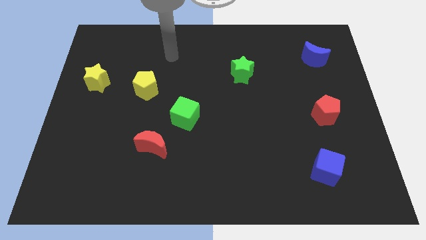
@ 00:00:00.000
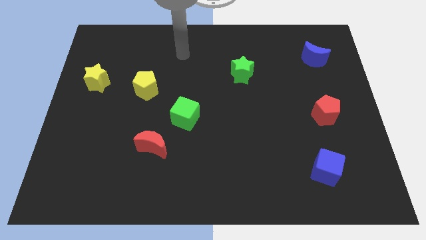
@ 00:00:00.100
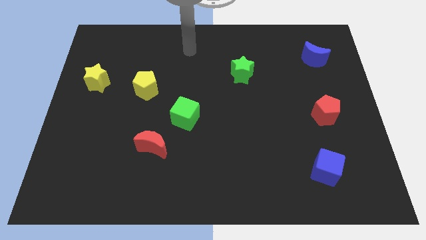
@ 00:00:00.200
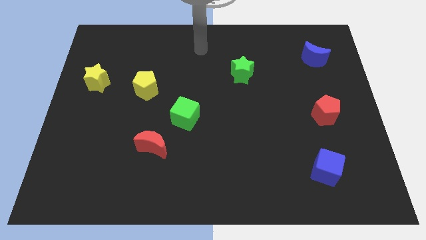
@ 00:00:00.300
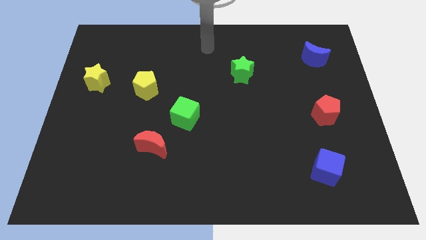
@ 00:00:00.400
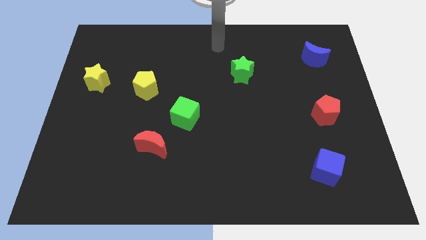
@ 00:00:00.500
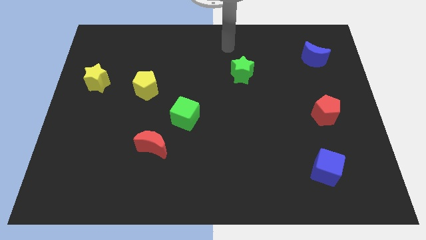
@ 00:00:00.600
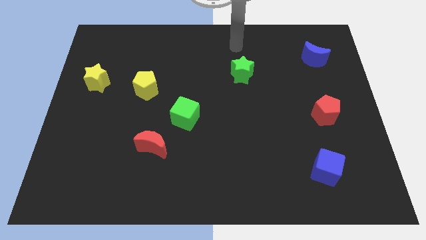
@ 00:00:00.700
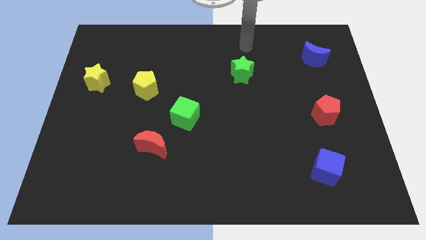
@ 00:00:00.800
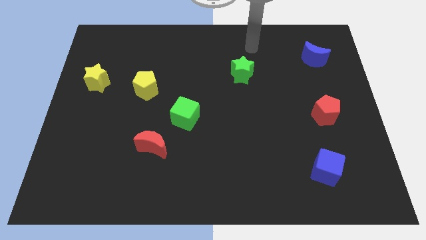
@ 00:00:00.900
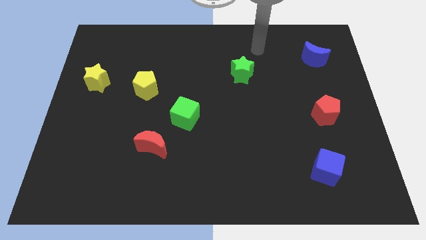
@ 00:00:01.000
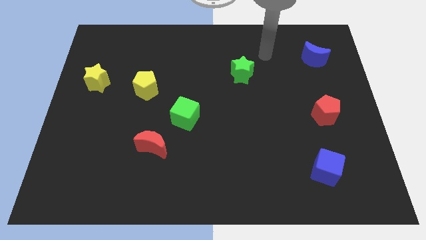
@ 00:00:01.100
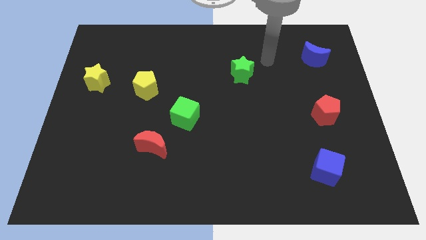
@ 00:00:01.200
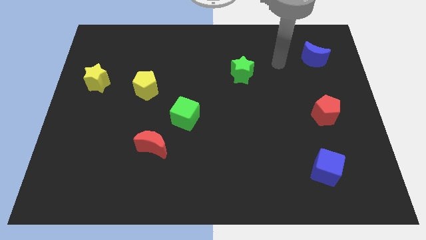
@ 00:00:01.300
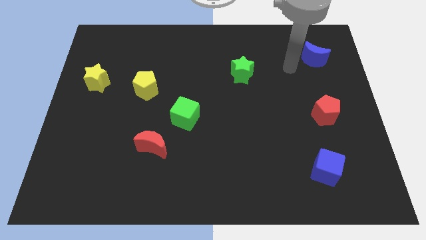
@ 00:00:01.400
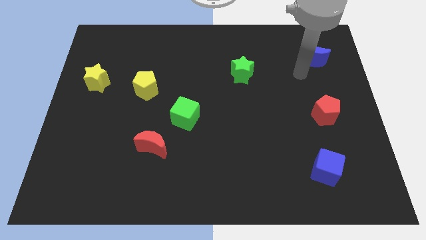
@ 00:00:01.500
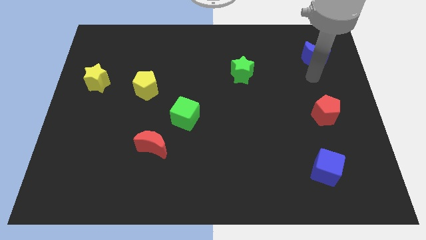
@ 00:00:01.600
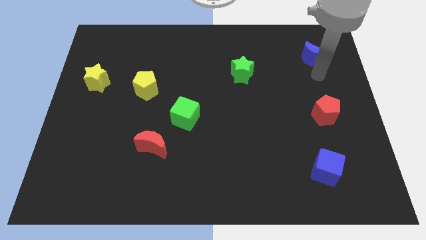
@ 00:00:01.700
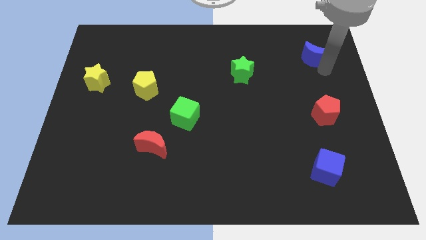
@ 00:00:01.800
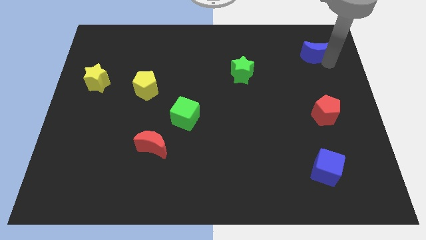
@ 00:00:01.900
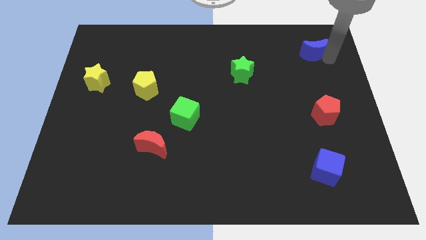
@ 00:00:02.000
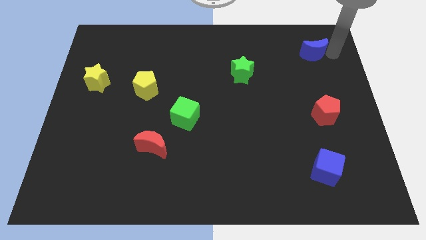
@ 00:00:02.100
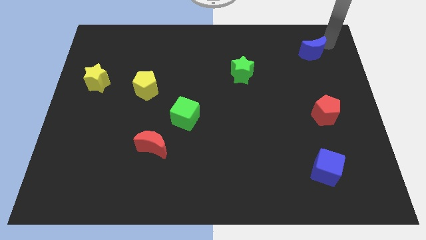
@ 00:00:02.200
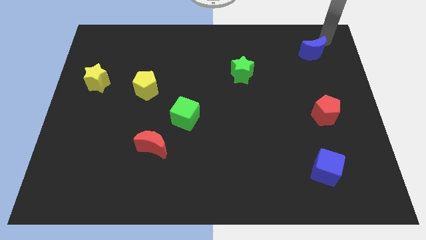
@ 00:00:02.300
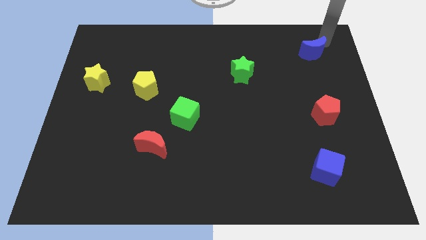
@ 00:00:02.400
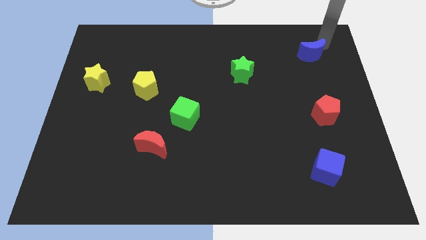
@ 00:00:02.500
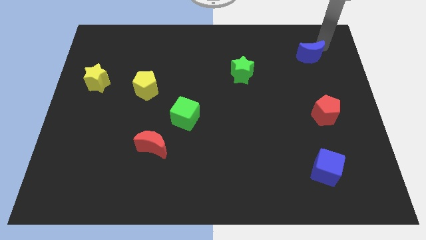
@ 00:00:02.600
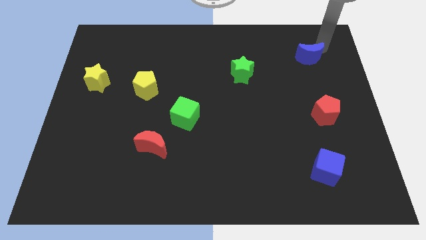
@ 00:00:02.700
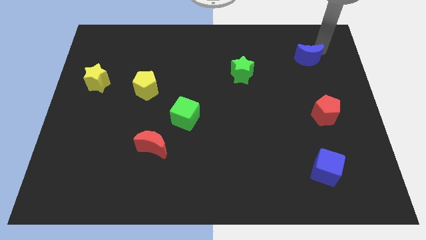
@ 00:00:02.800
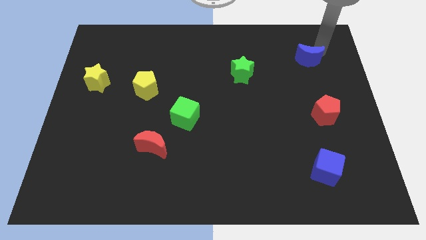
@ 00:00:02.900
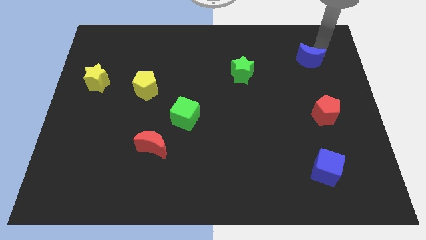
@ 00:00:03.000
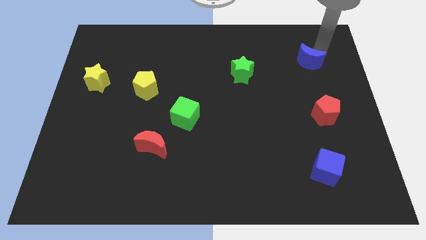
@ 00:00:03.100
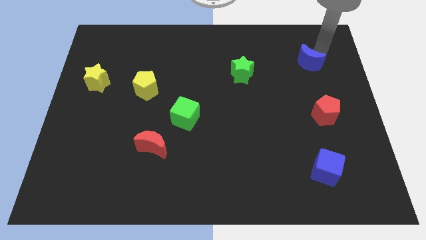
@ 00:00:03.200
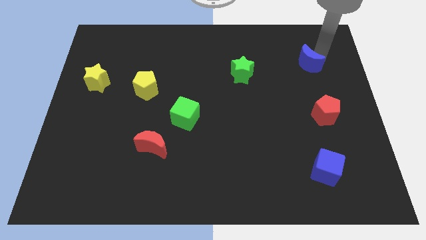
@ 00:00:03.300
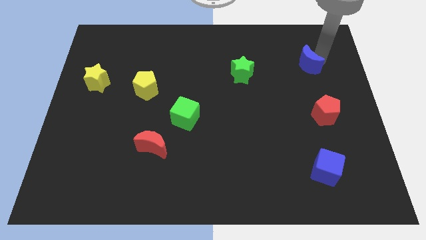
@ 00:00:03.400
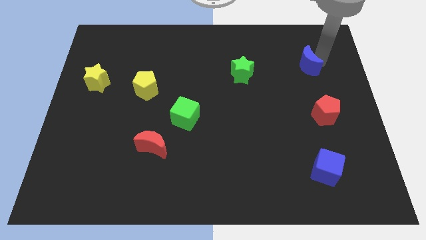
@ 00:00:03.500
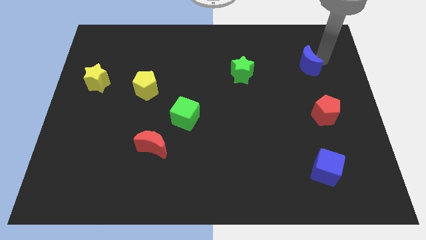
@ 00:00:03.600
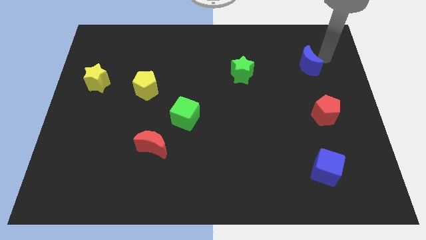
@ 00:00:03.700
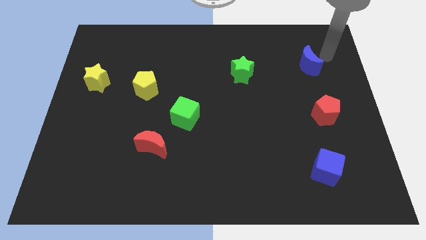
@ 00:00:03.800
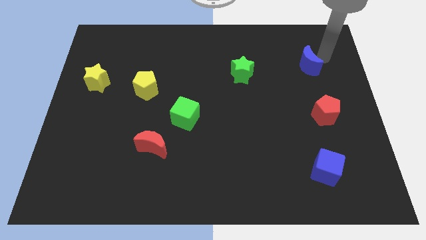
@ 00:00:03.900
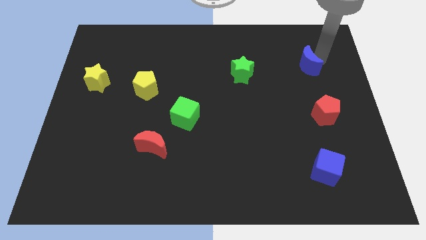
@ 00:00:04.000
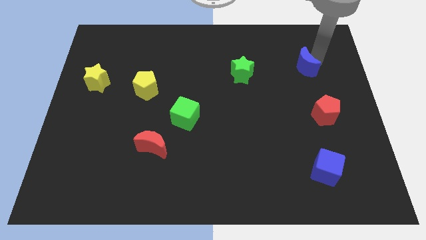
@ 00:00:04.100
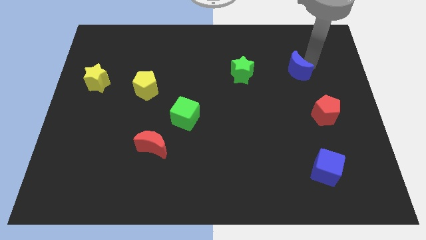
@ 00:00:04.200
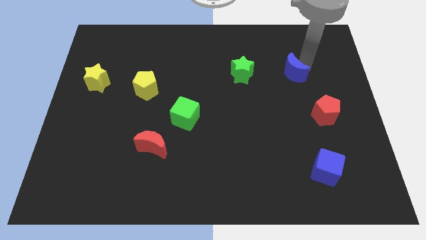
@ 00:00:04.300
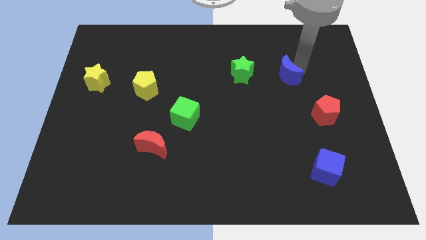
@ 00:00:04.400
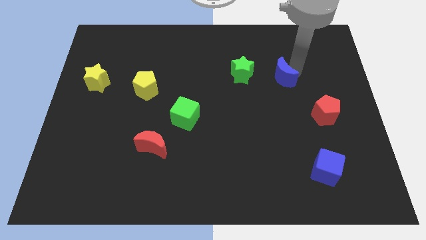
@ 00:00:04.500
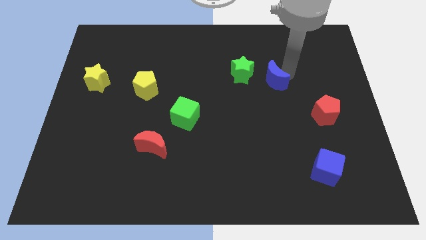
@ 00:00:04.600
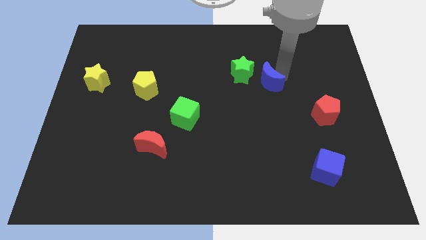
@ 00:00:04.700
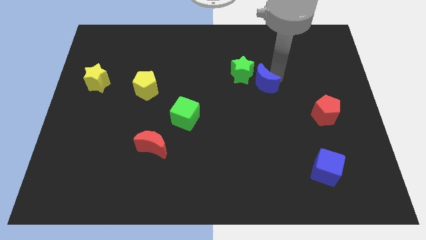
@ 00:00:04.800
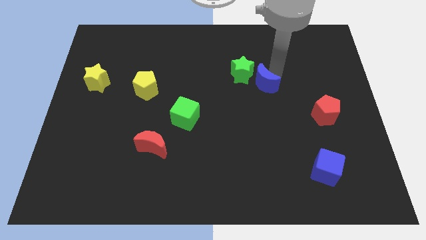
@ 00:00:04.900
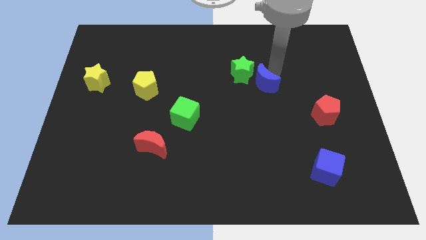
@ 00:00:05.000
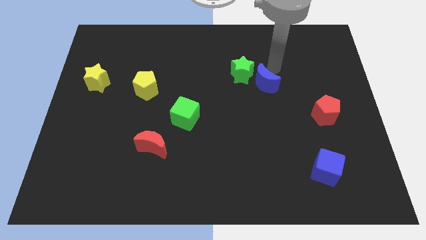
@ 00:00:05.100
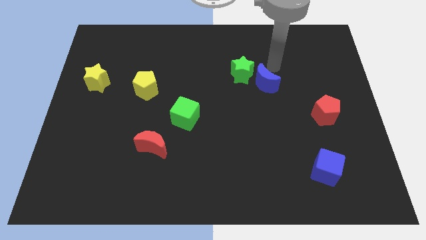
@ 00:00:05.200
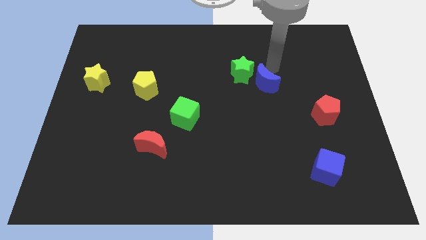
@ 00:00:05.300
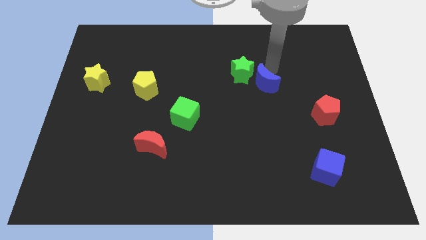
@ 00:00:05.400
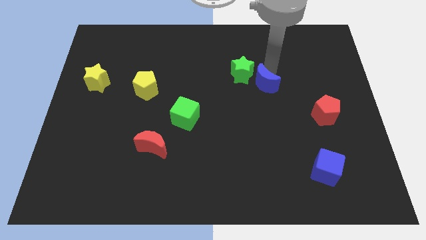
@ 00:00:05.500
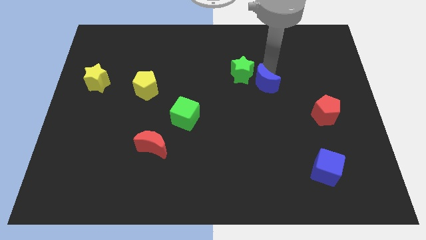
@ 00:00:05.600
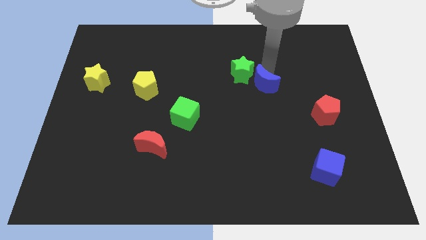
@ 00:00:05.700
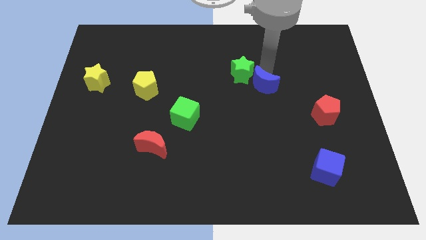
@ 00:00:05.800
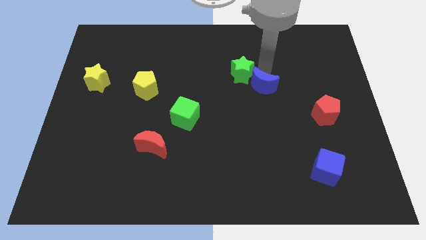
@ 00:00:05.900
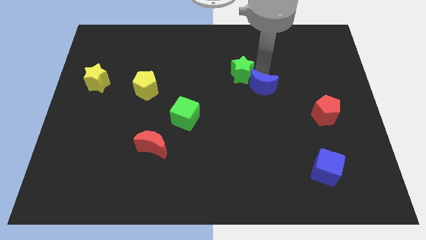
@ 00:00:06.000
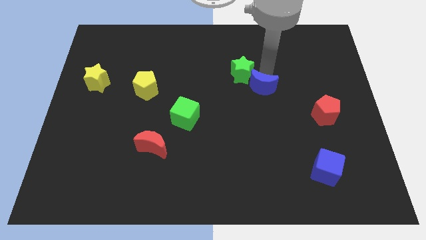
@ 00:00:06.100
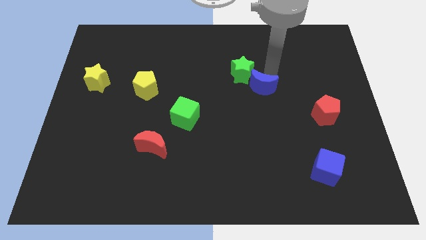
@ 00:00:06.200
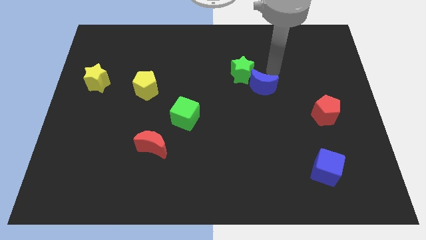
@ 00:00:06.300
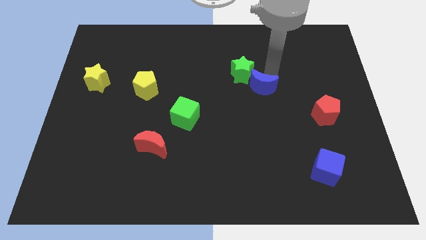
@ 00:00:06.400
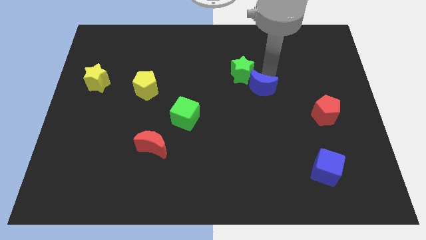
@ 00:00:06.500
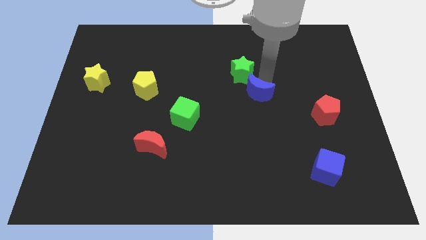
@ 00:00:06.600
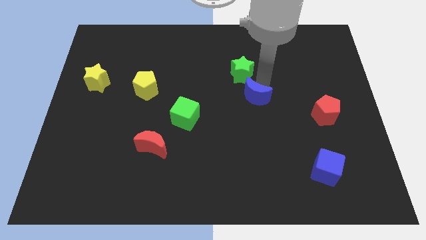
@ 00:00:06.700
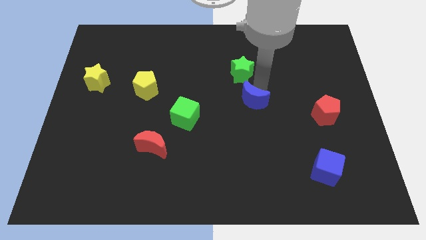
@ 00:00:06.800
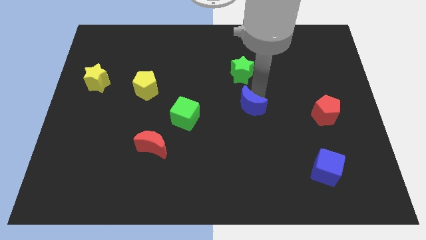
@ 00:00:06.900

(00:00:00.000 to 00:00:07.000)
put the blue moon to the right of the green cube

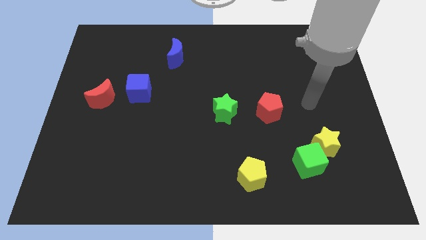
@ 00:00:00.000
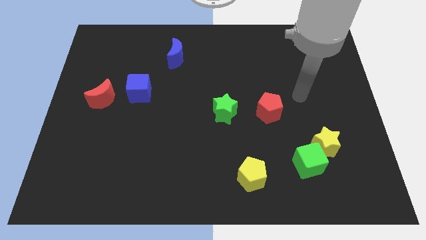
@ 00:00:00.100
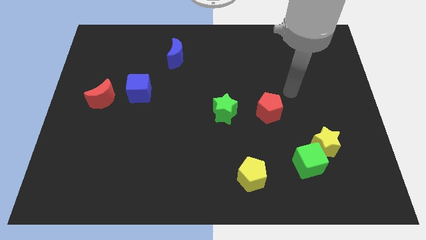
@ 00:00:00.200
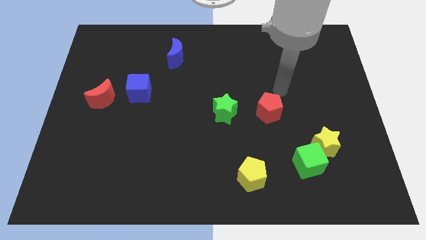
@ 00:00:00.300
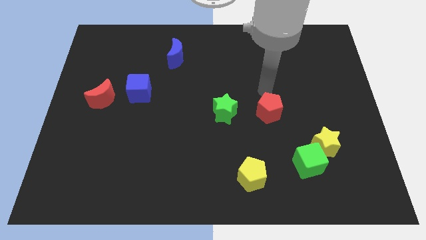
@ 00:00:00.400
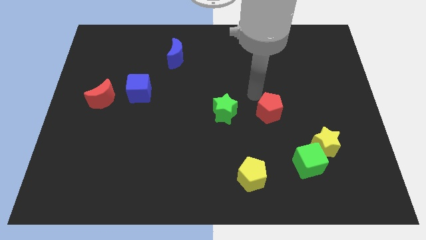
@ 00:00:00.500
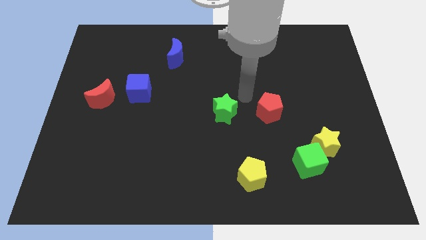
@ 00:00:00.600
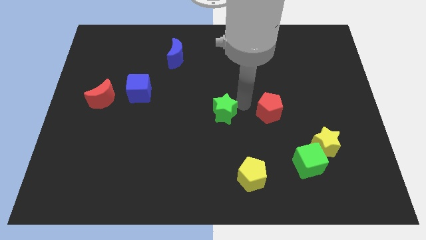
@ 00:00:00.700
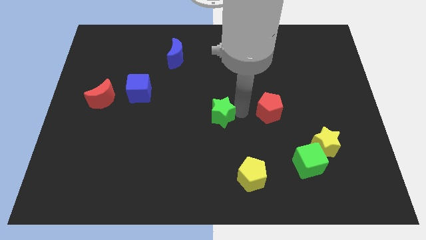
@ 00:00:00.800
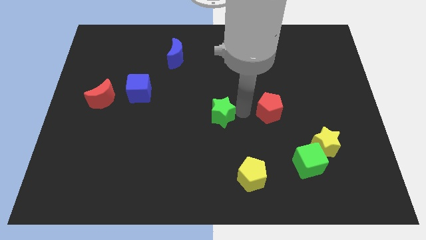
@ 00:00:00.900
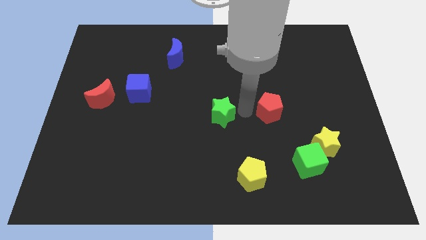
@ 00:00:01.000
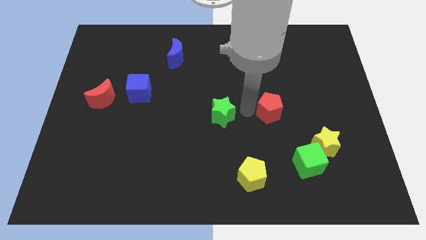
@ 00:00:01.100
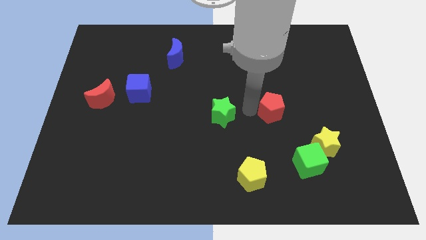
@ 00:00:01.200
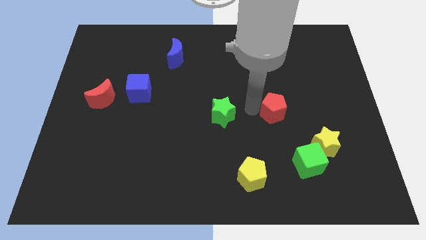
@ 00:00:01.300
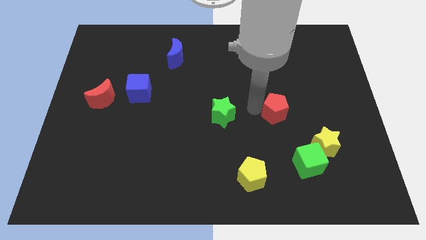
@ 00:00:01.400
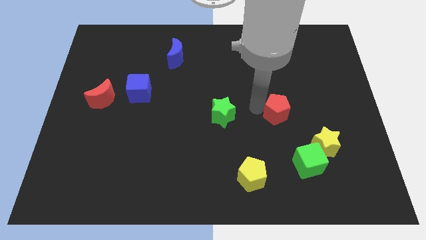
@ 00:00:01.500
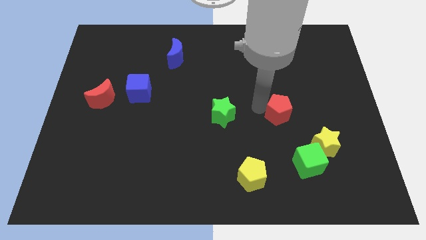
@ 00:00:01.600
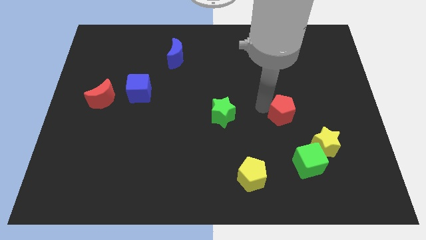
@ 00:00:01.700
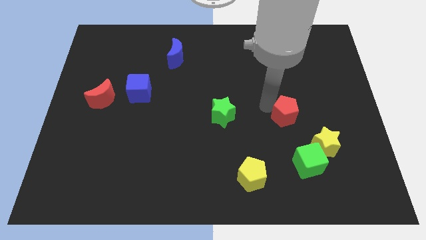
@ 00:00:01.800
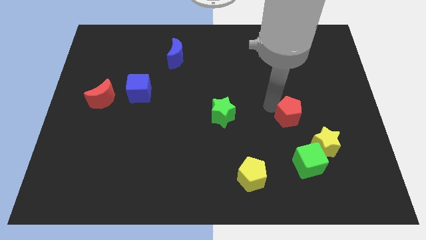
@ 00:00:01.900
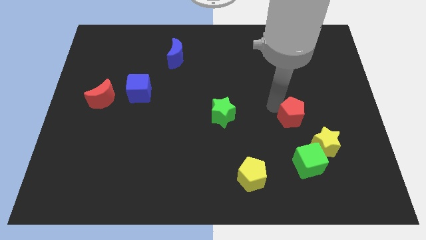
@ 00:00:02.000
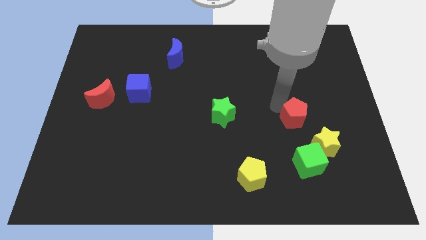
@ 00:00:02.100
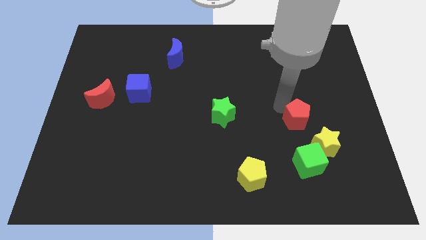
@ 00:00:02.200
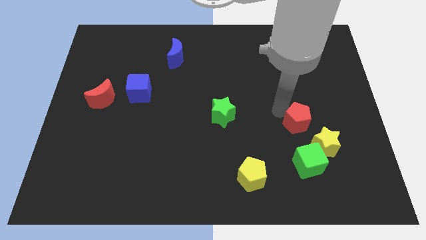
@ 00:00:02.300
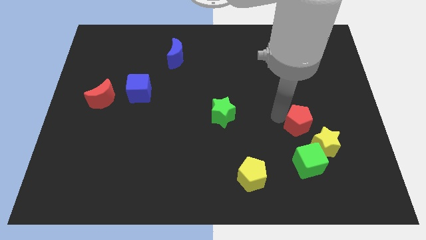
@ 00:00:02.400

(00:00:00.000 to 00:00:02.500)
push the red pentagon to the top side of the yellow star
